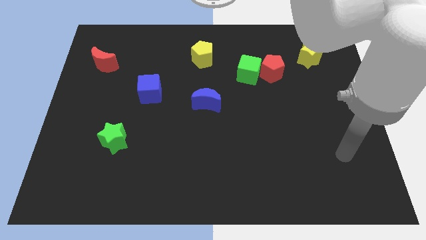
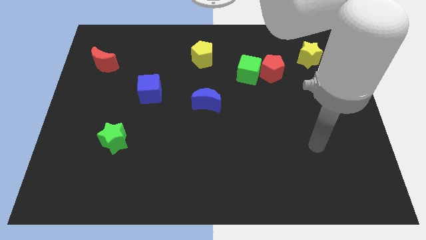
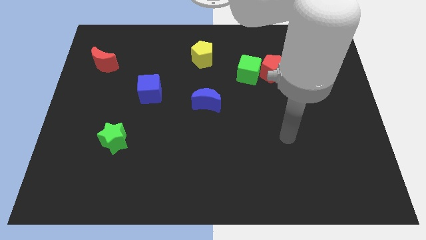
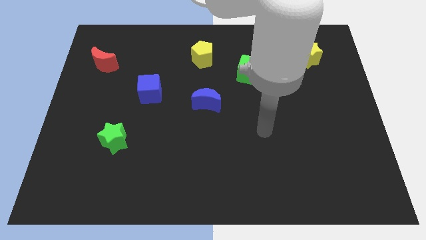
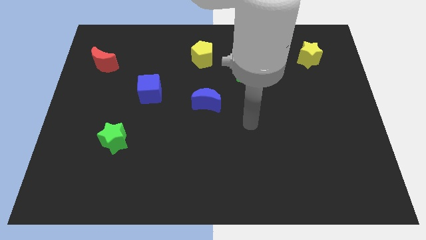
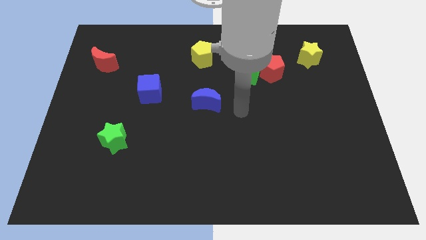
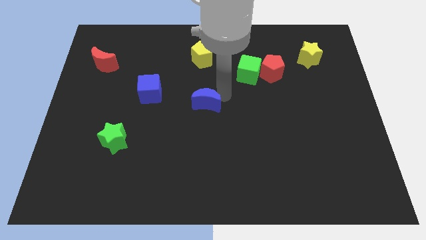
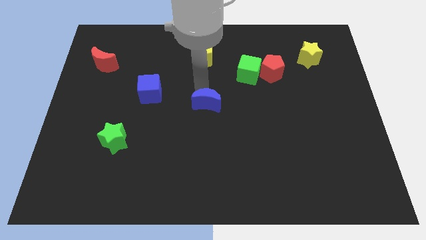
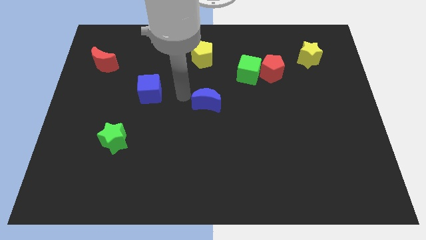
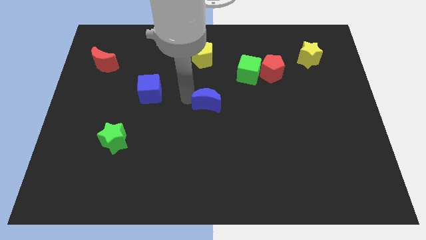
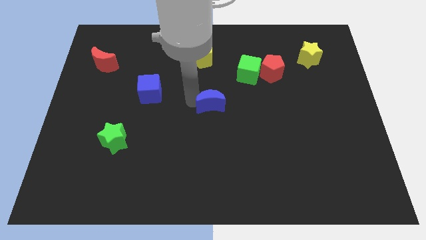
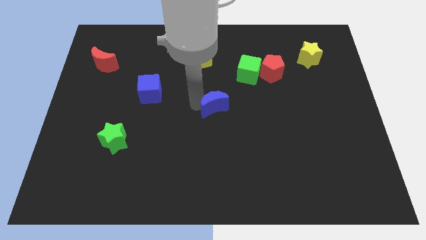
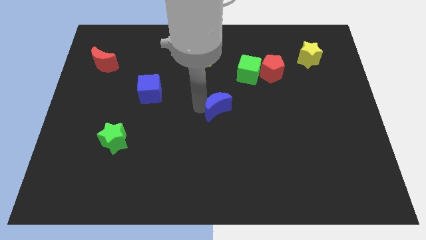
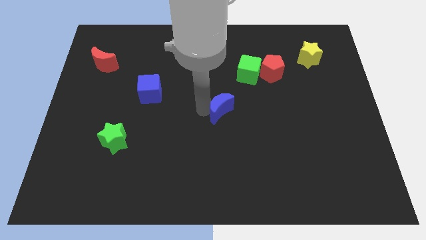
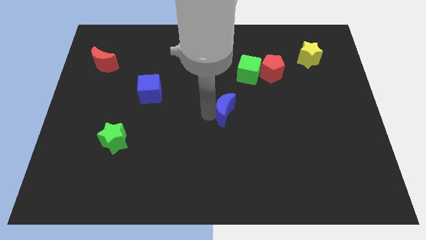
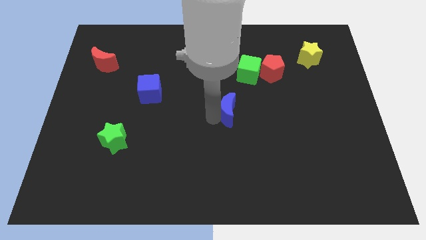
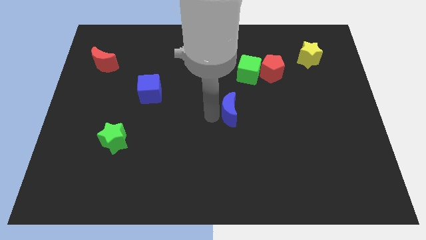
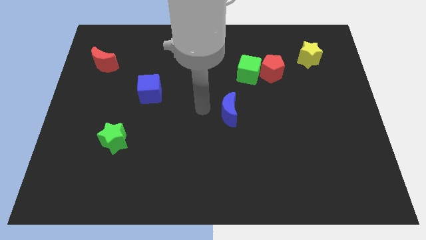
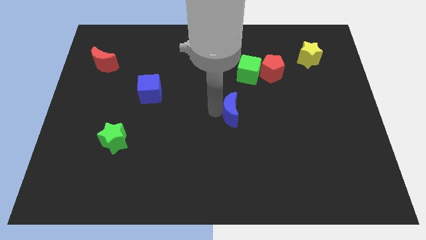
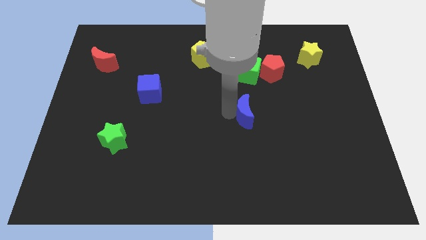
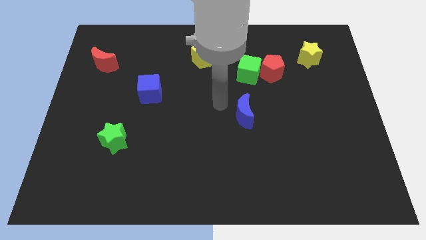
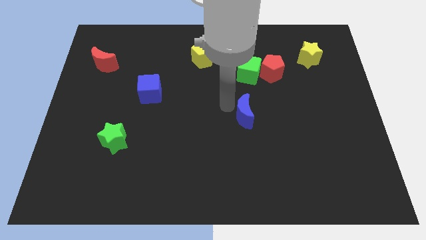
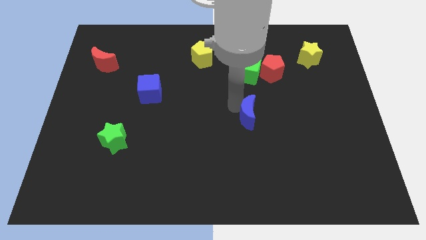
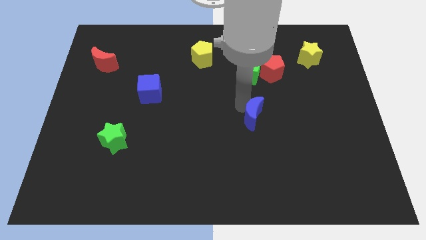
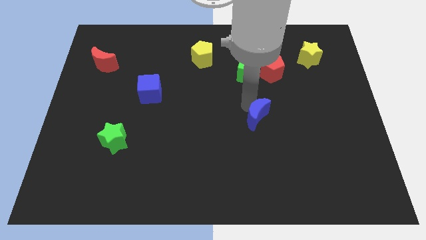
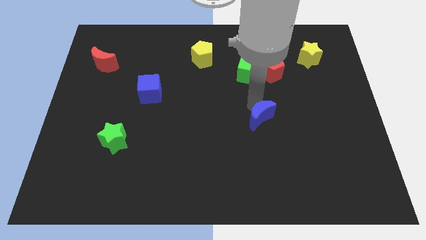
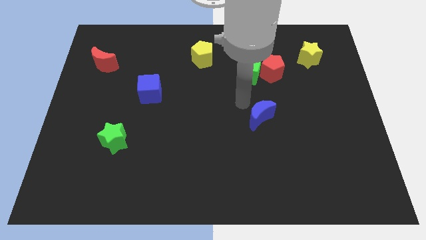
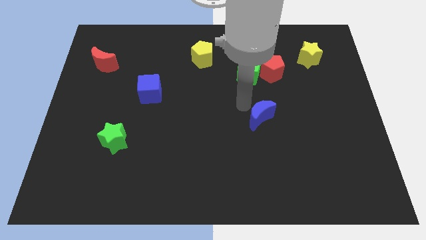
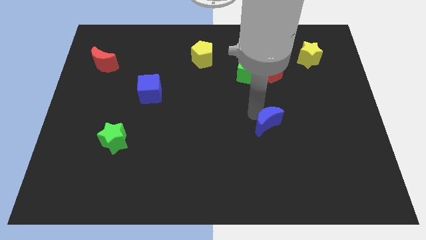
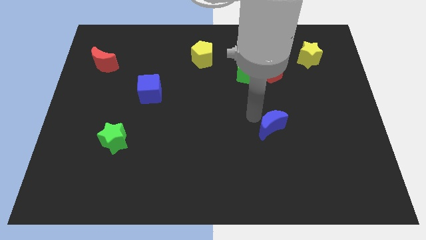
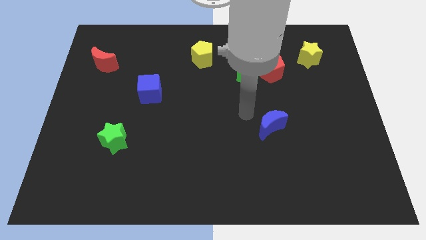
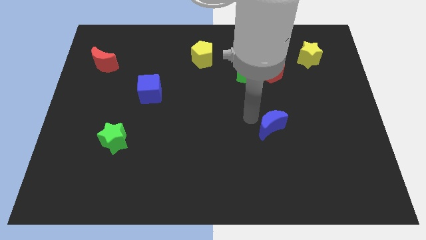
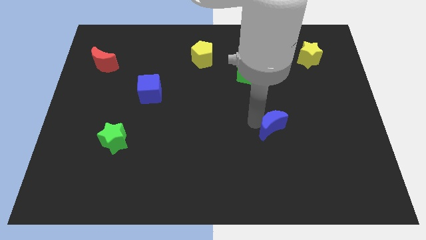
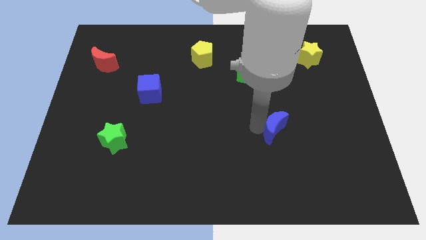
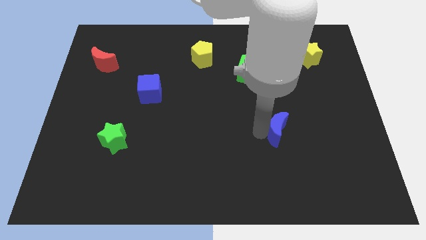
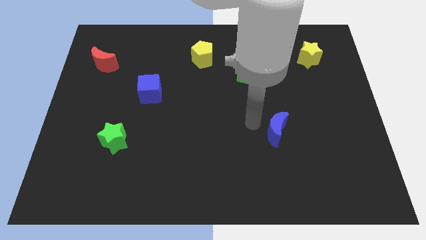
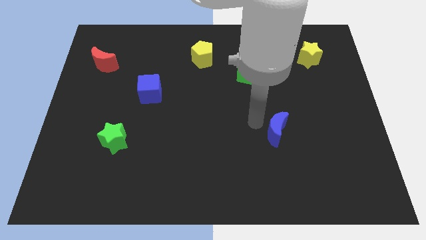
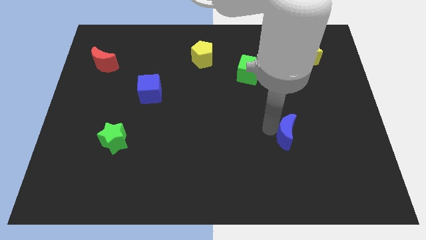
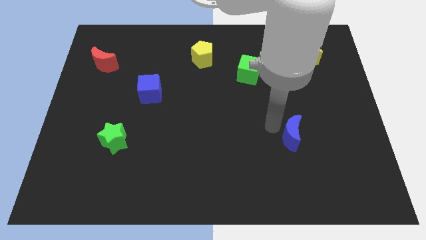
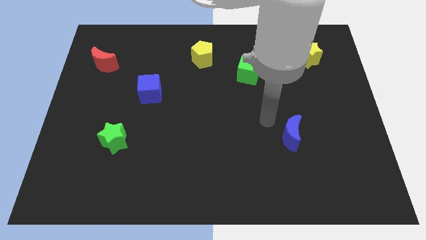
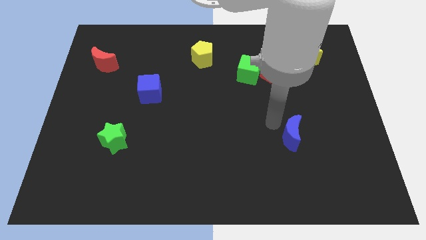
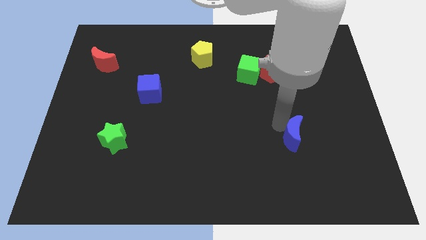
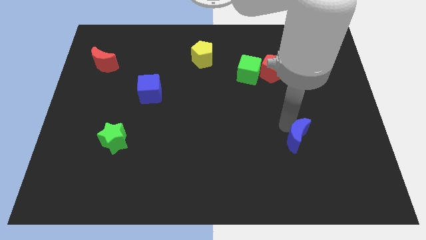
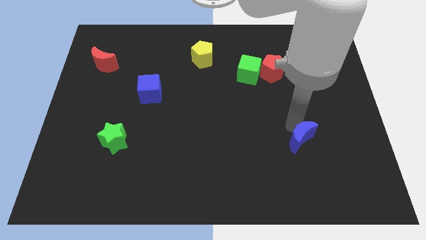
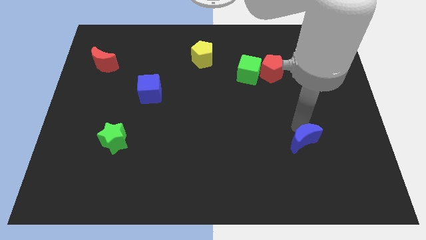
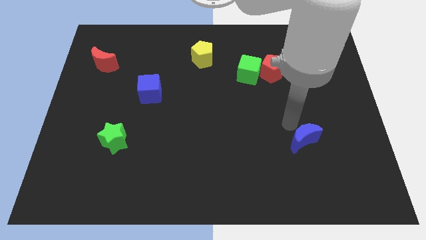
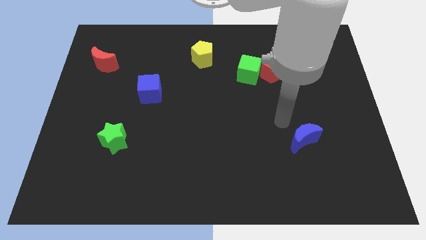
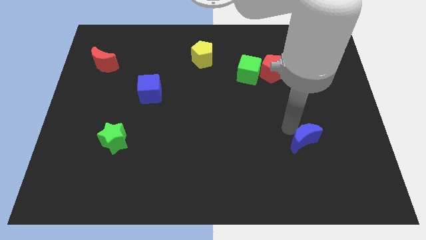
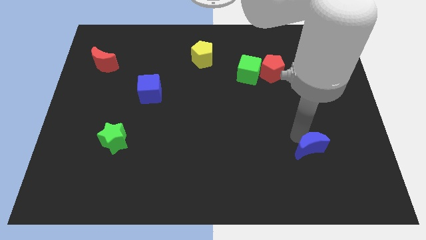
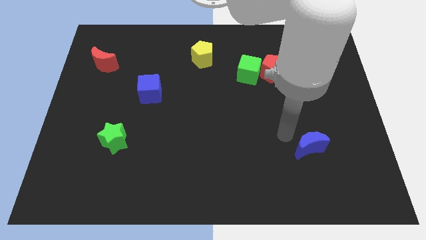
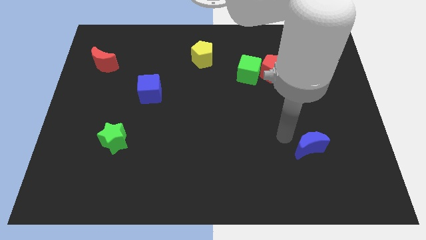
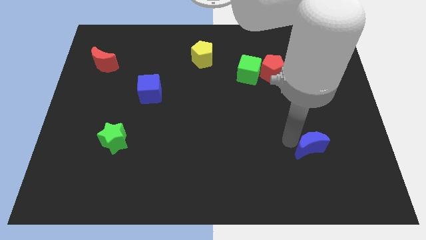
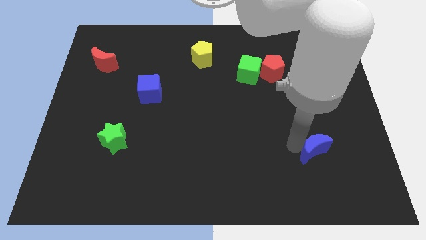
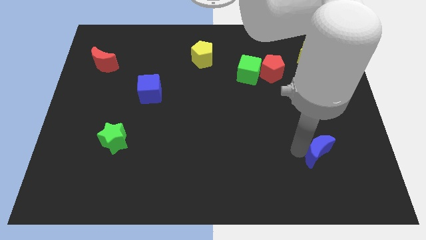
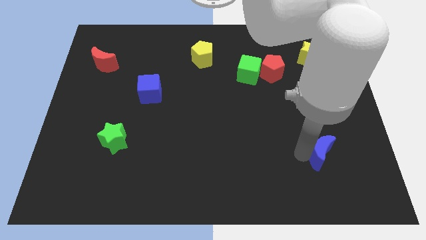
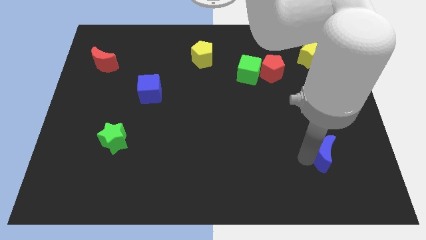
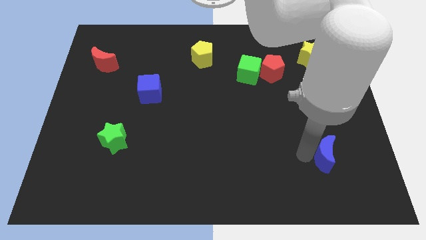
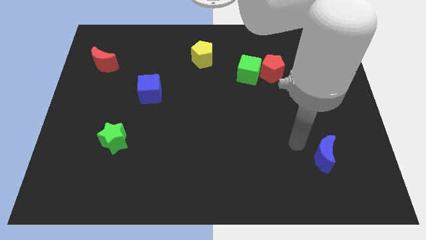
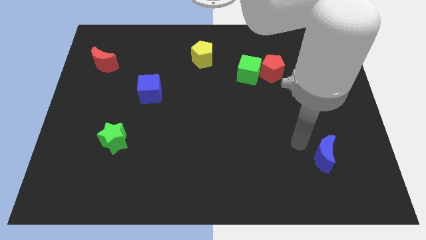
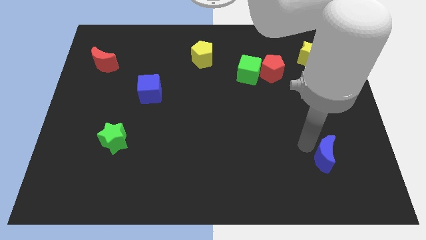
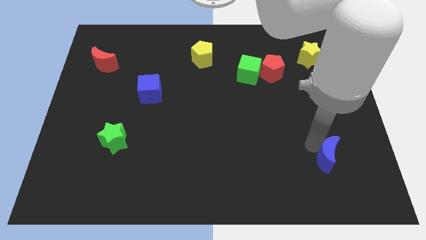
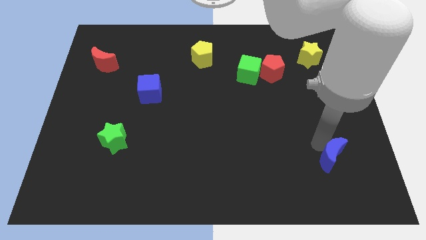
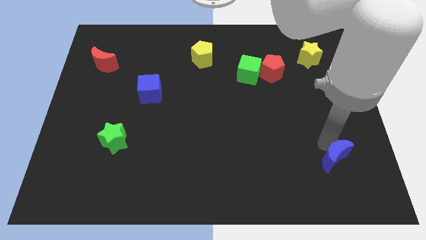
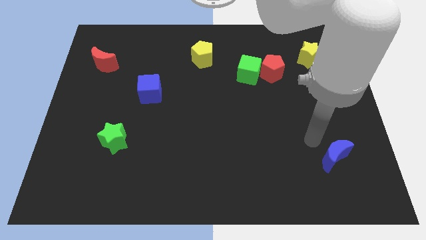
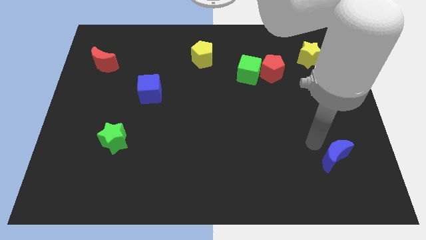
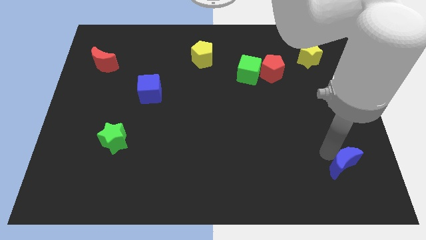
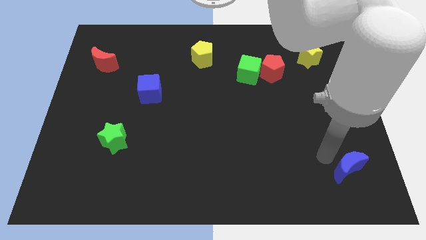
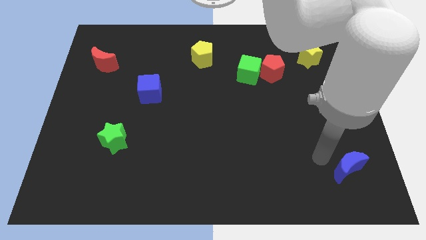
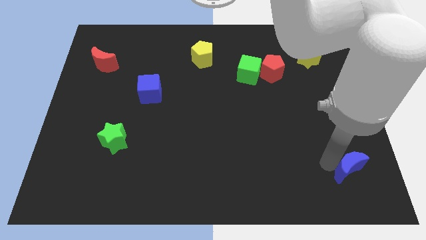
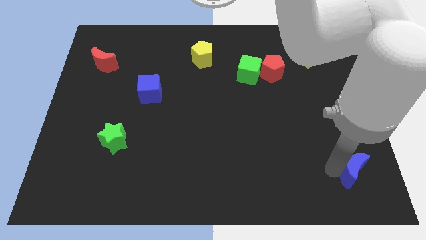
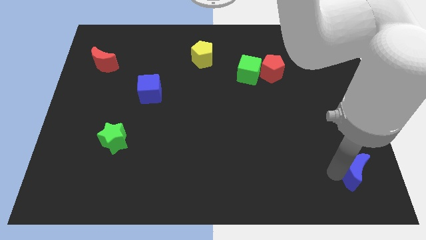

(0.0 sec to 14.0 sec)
slide the blue moon to the lower right corner
